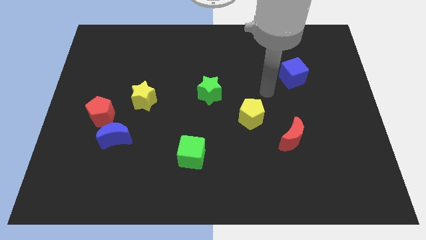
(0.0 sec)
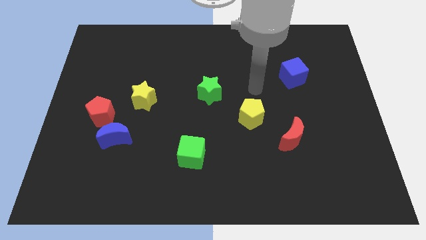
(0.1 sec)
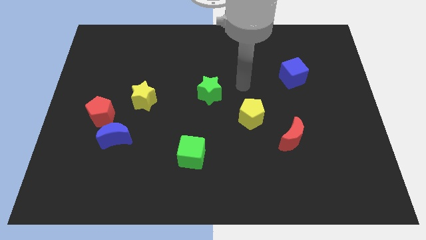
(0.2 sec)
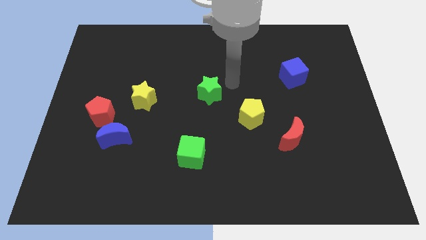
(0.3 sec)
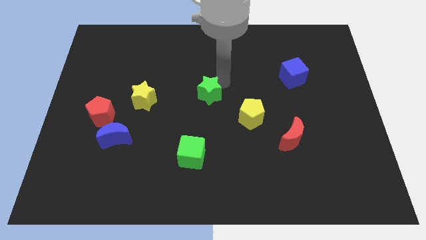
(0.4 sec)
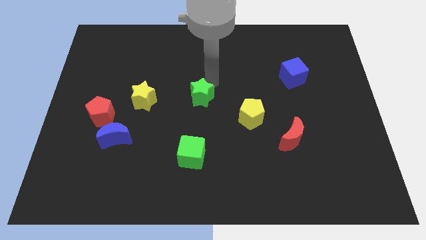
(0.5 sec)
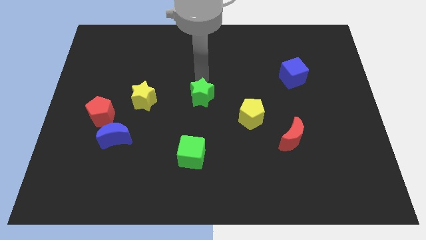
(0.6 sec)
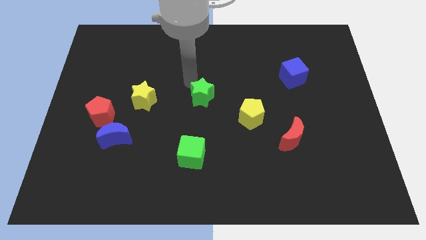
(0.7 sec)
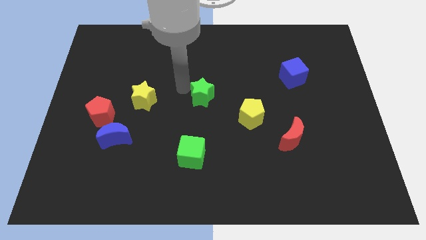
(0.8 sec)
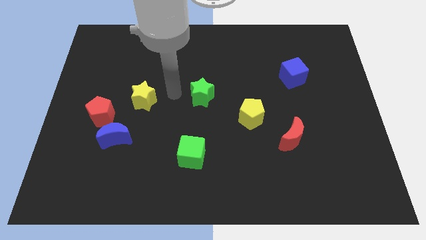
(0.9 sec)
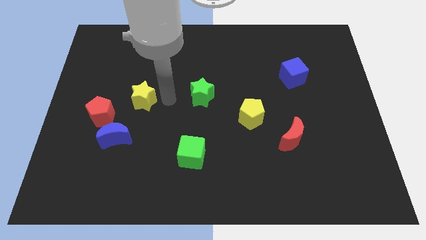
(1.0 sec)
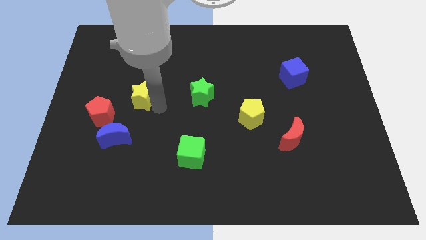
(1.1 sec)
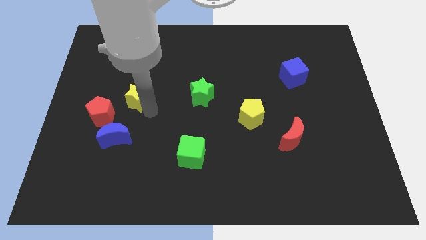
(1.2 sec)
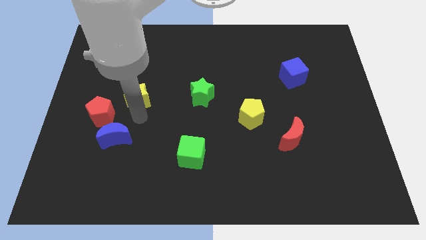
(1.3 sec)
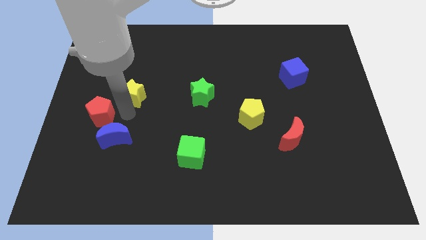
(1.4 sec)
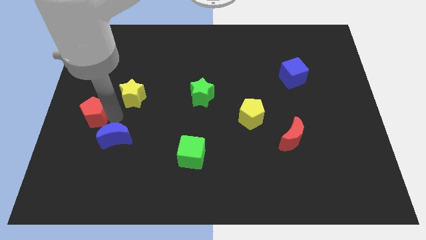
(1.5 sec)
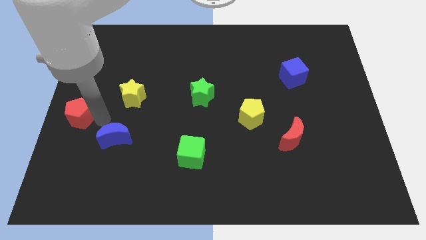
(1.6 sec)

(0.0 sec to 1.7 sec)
move the blue moon away from the red pentagon

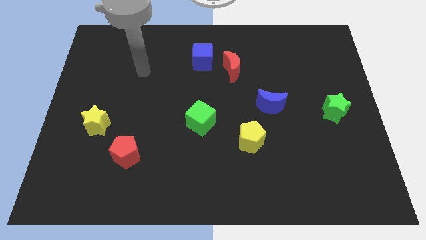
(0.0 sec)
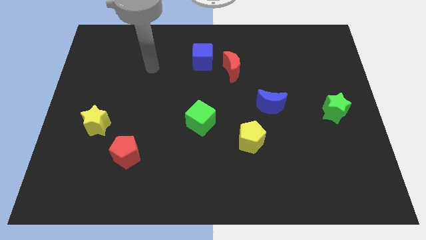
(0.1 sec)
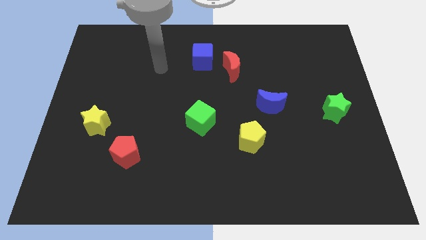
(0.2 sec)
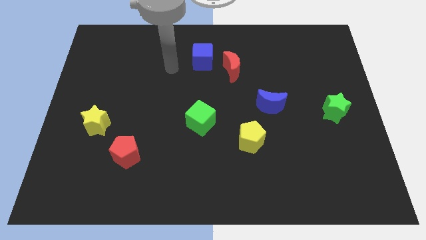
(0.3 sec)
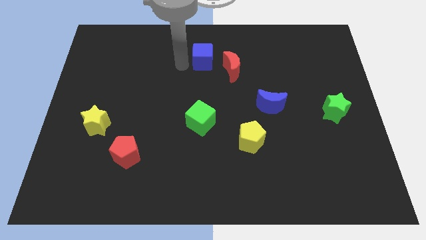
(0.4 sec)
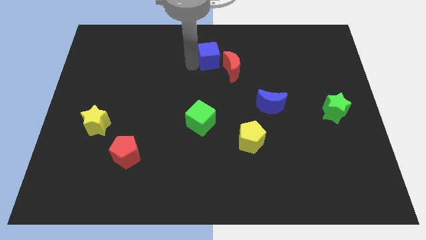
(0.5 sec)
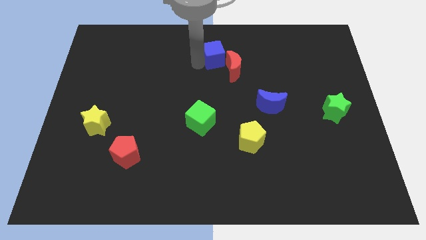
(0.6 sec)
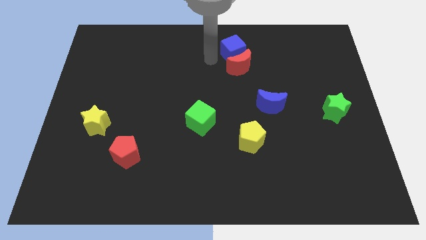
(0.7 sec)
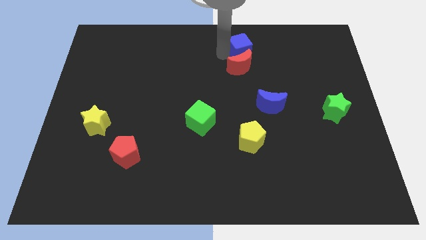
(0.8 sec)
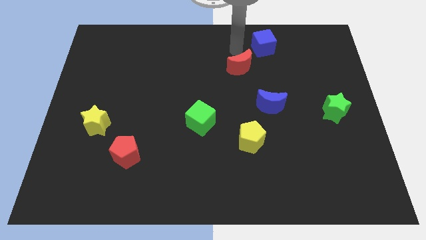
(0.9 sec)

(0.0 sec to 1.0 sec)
separate the red moon from the blue cube

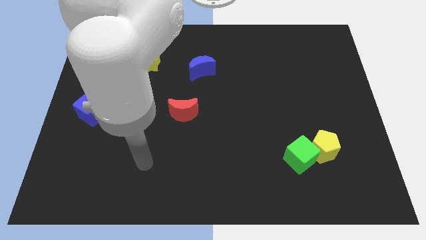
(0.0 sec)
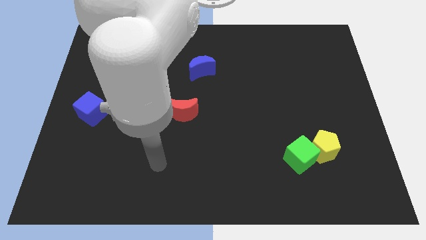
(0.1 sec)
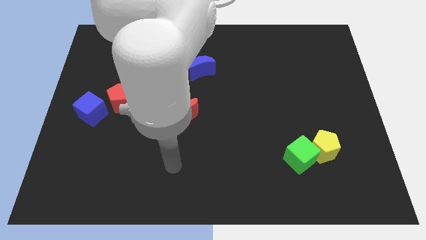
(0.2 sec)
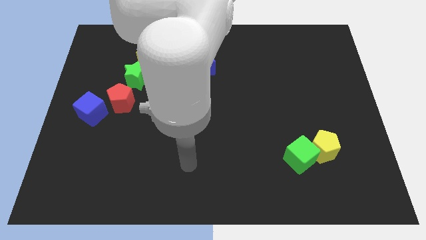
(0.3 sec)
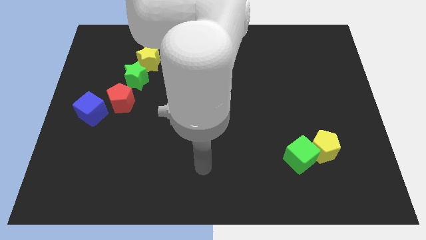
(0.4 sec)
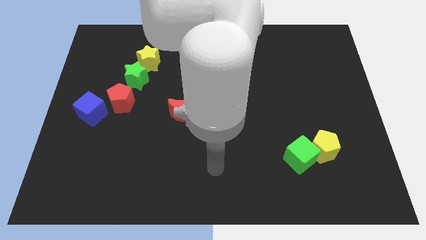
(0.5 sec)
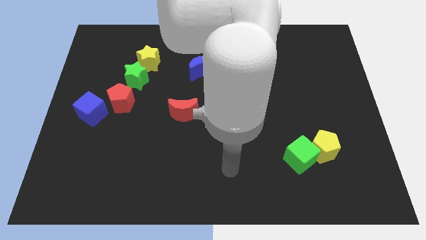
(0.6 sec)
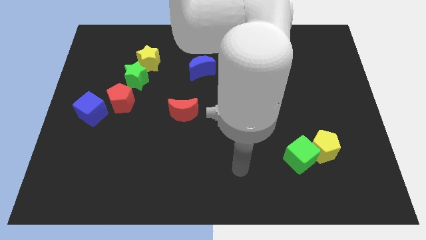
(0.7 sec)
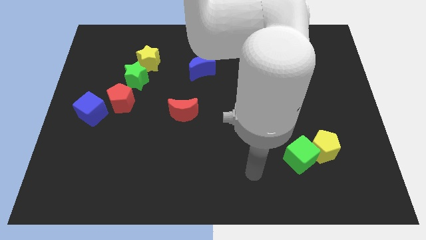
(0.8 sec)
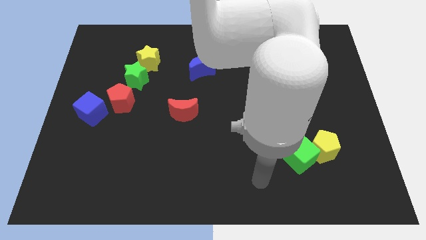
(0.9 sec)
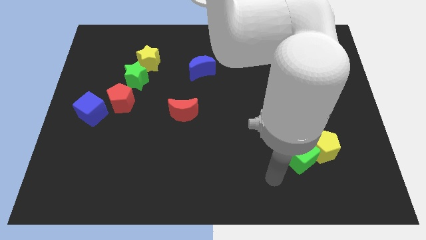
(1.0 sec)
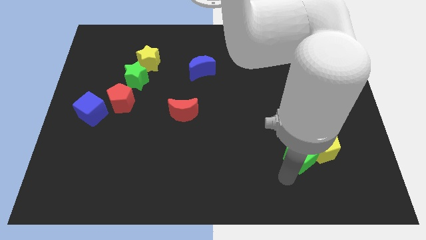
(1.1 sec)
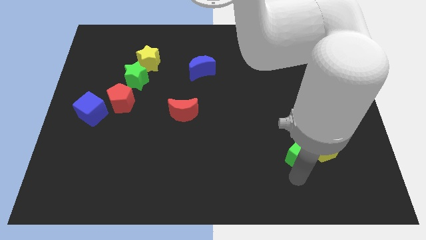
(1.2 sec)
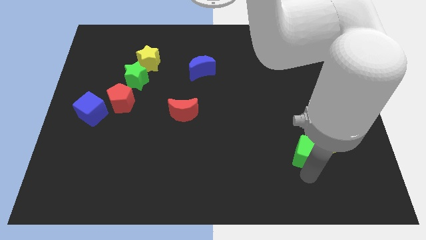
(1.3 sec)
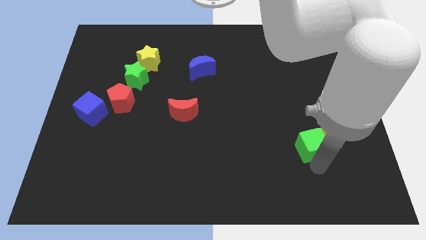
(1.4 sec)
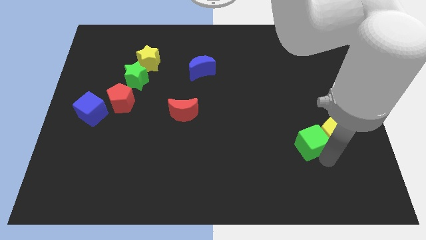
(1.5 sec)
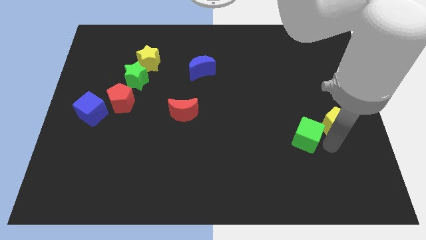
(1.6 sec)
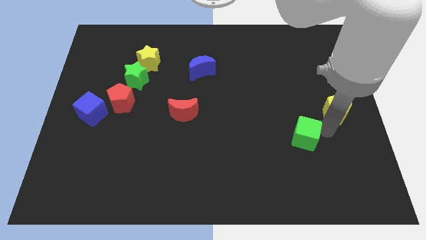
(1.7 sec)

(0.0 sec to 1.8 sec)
move the green cube away from the yellow pentagon

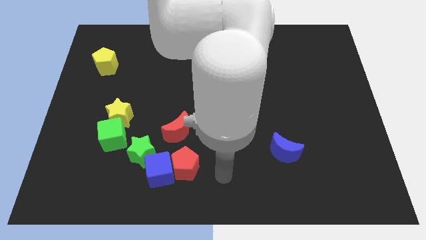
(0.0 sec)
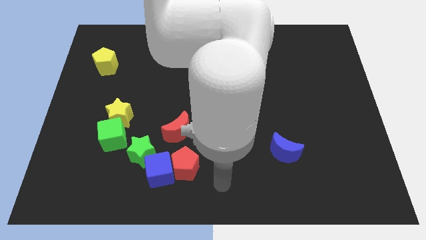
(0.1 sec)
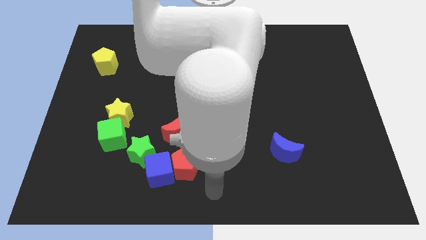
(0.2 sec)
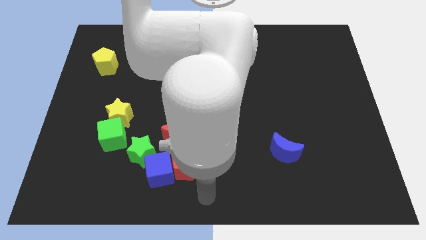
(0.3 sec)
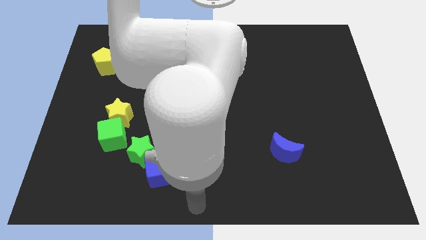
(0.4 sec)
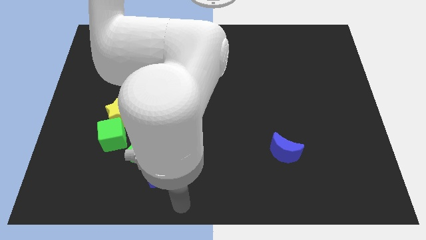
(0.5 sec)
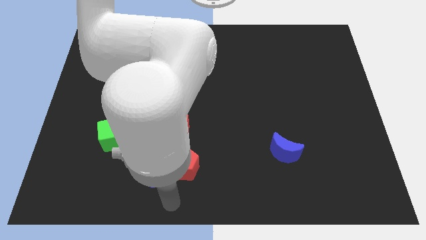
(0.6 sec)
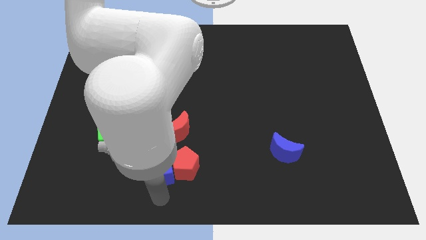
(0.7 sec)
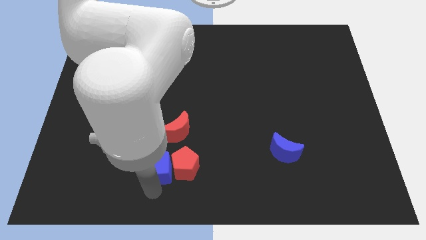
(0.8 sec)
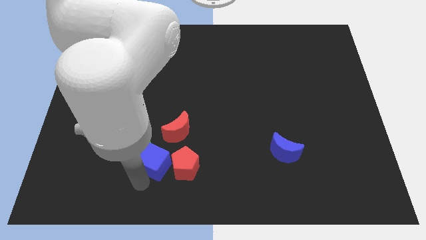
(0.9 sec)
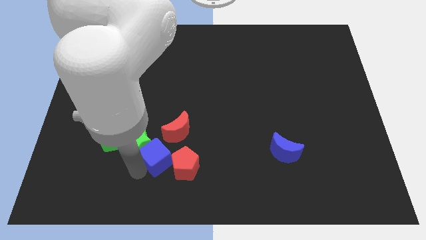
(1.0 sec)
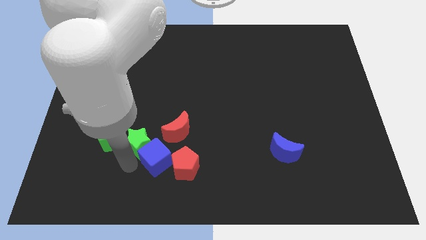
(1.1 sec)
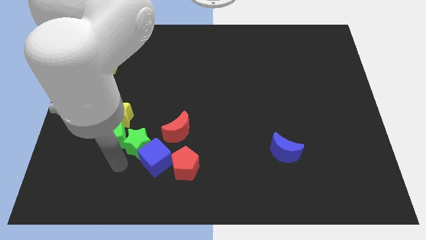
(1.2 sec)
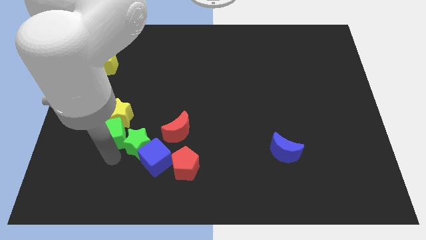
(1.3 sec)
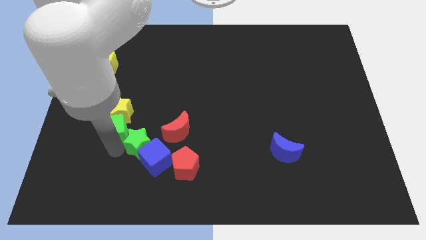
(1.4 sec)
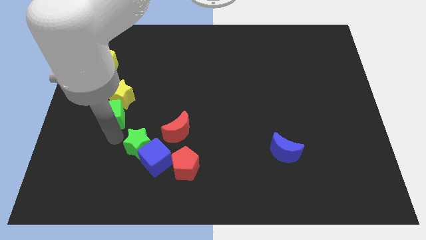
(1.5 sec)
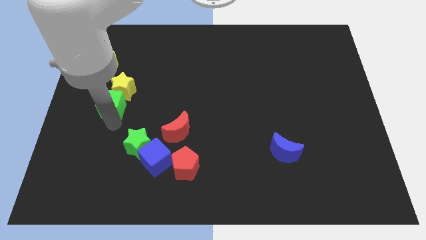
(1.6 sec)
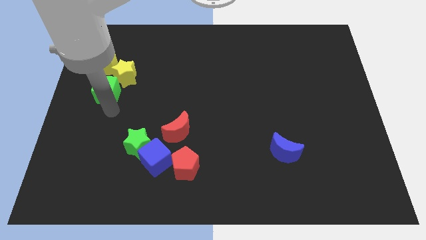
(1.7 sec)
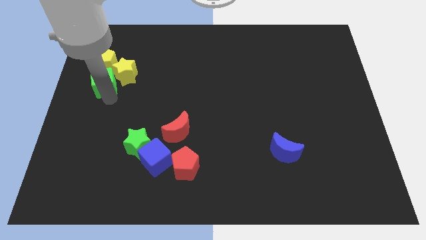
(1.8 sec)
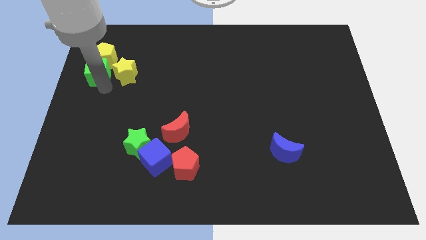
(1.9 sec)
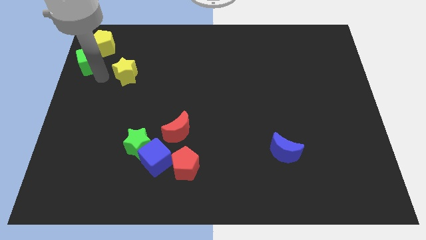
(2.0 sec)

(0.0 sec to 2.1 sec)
separate the yellow star from the green cube

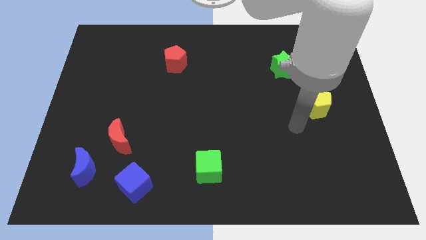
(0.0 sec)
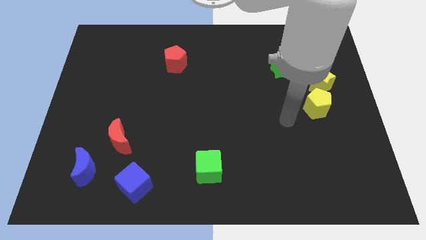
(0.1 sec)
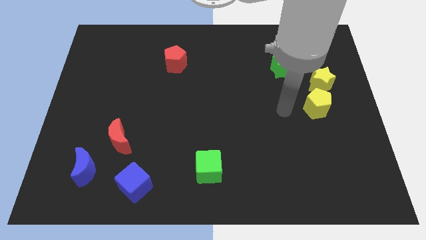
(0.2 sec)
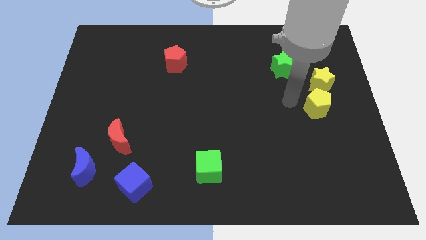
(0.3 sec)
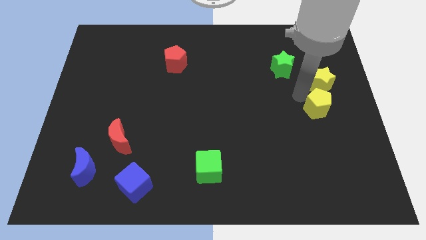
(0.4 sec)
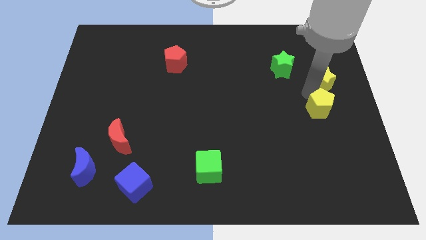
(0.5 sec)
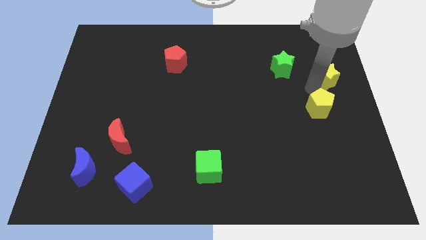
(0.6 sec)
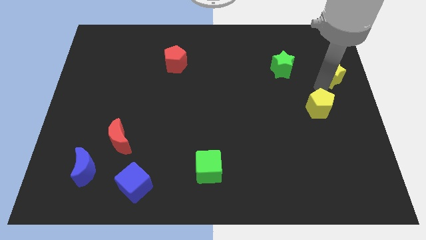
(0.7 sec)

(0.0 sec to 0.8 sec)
separate the yellow pentagon from the yellow star

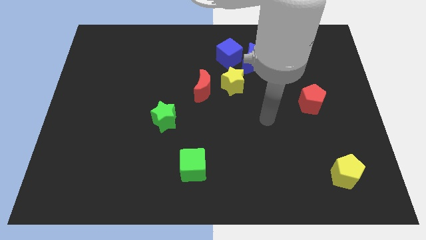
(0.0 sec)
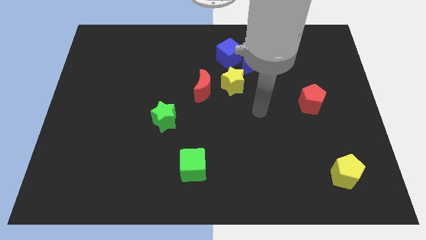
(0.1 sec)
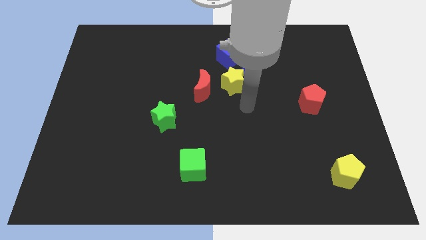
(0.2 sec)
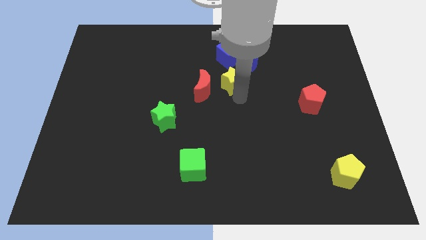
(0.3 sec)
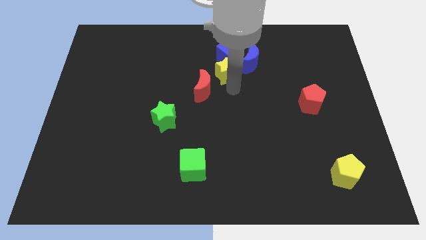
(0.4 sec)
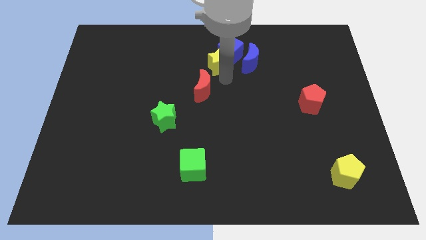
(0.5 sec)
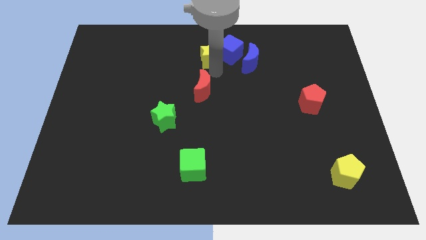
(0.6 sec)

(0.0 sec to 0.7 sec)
pull the red moon apart from the yellow star

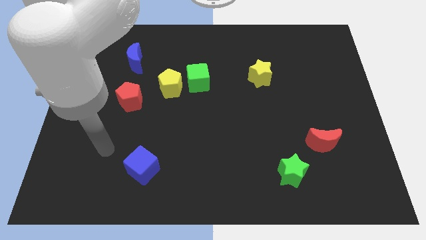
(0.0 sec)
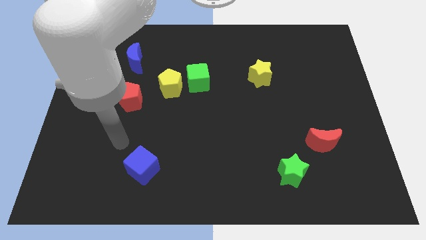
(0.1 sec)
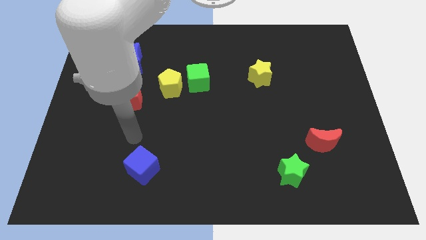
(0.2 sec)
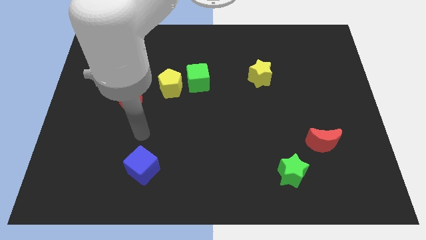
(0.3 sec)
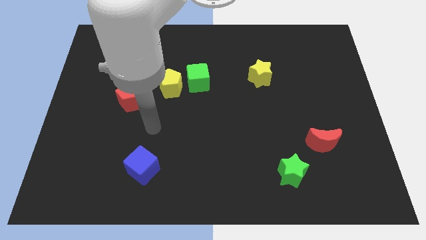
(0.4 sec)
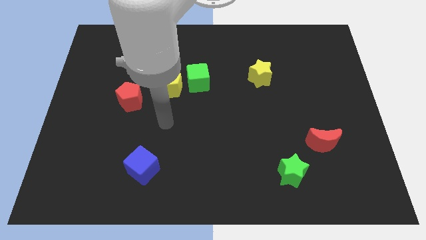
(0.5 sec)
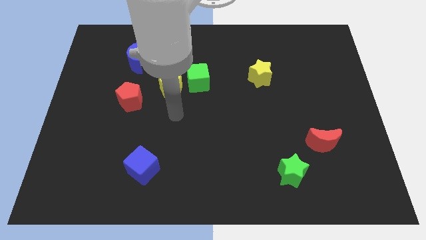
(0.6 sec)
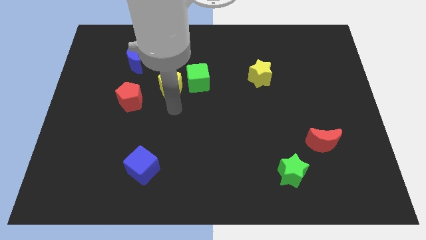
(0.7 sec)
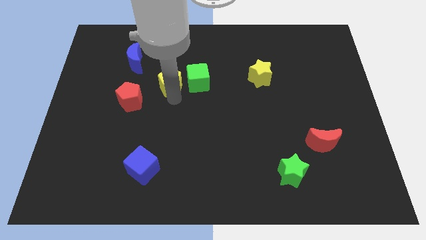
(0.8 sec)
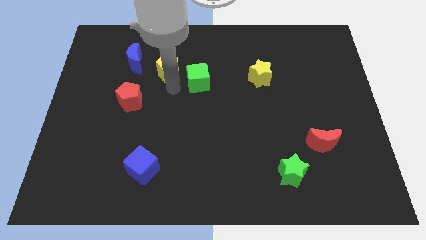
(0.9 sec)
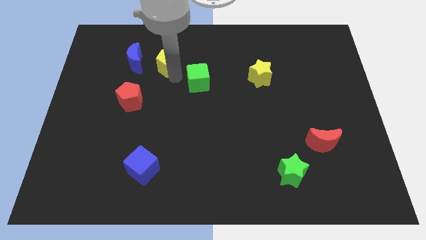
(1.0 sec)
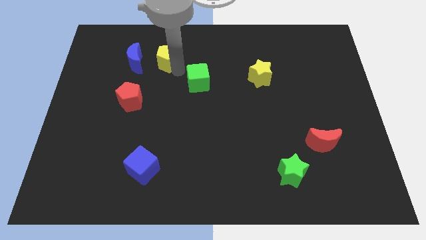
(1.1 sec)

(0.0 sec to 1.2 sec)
separate the green cube from the yellow pentagon
